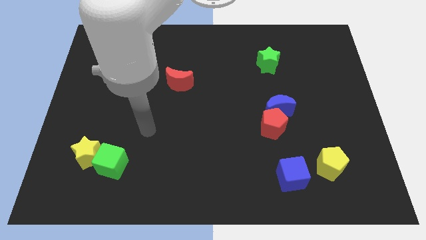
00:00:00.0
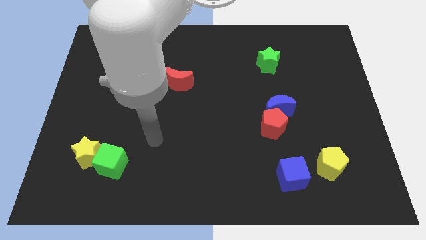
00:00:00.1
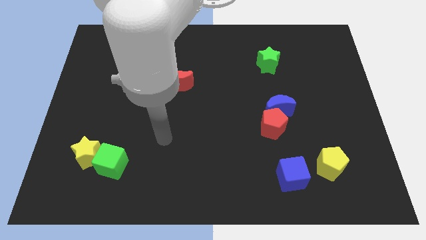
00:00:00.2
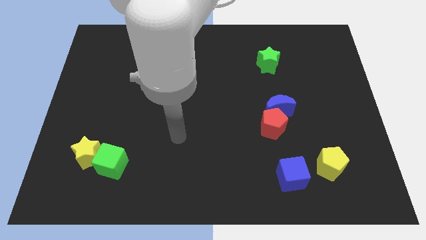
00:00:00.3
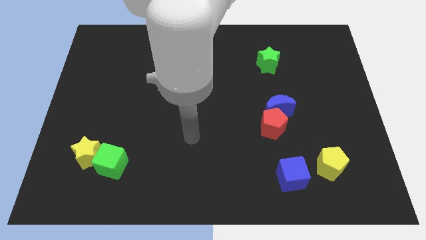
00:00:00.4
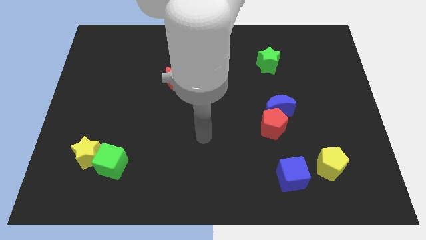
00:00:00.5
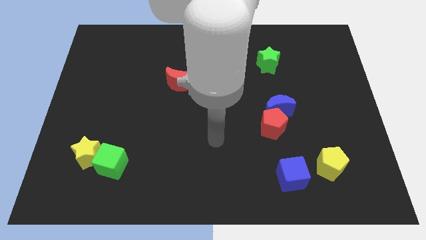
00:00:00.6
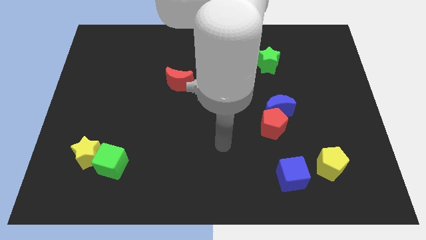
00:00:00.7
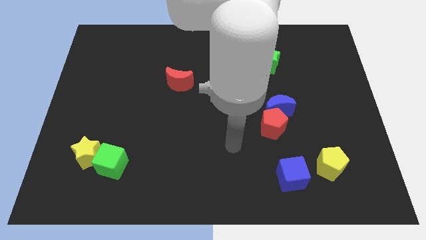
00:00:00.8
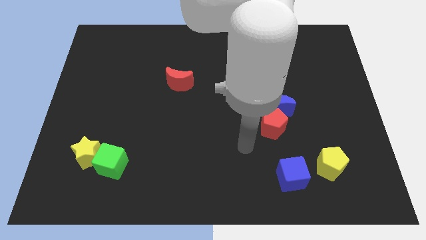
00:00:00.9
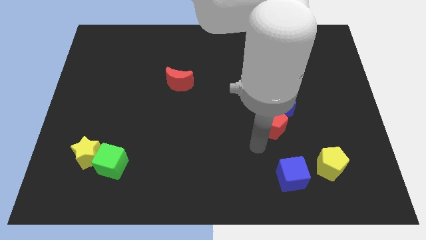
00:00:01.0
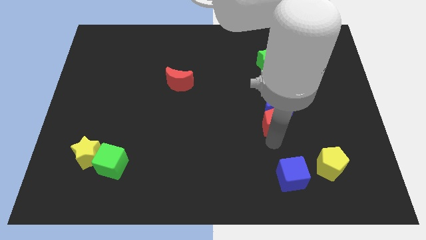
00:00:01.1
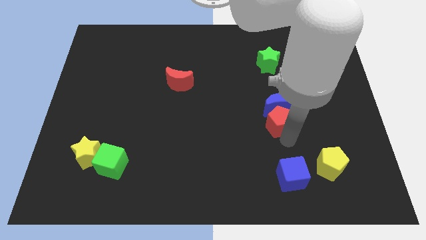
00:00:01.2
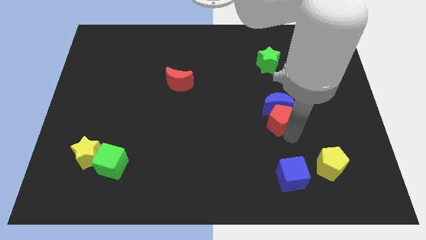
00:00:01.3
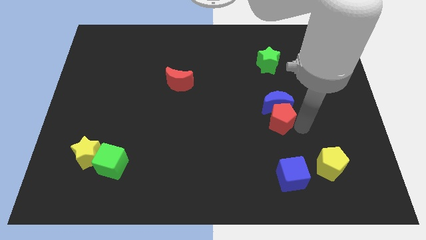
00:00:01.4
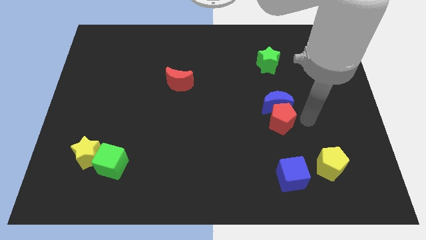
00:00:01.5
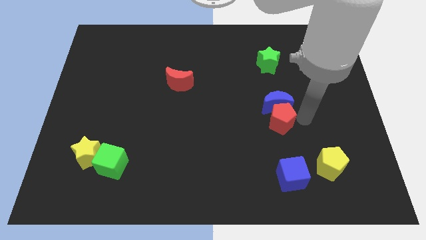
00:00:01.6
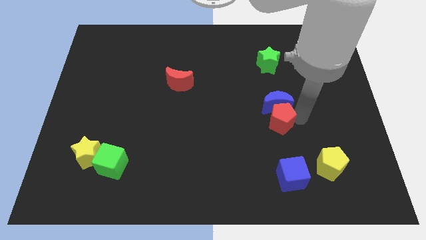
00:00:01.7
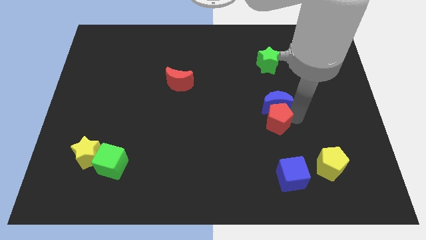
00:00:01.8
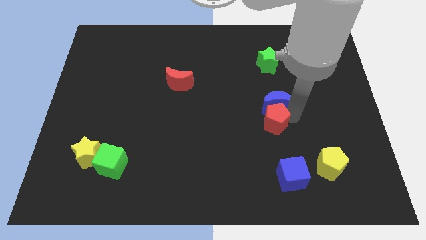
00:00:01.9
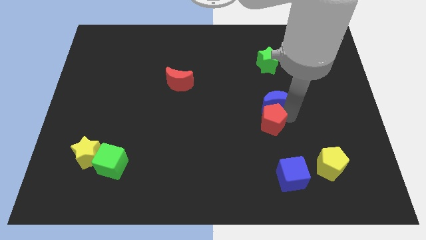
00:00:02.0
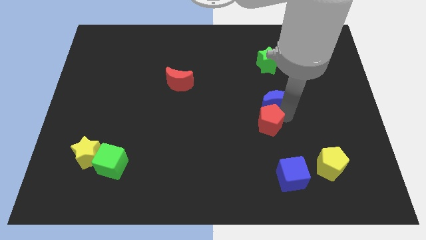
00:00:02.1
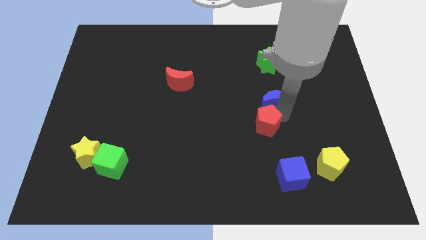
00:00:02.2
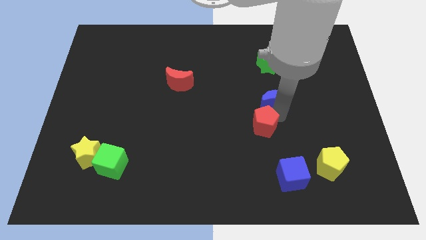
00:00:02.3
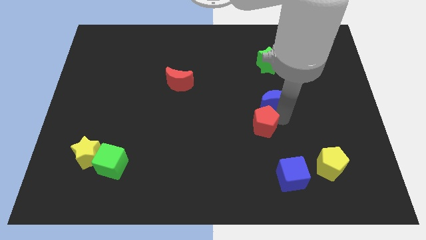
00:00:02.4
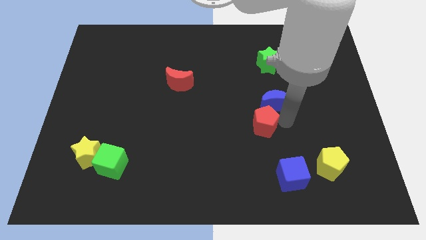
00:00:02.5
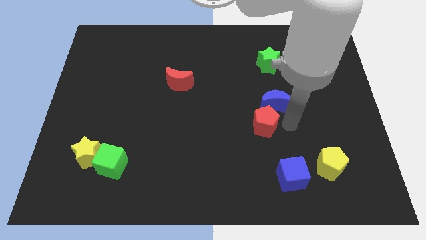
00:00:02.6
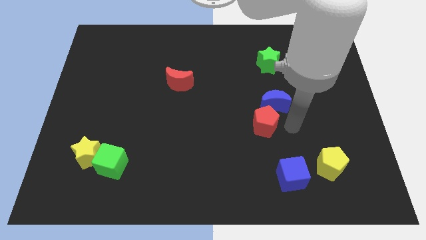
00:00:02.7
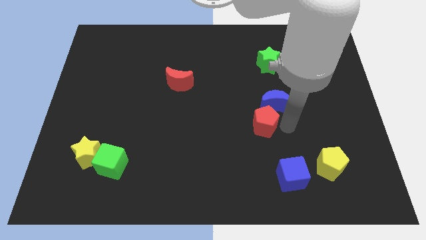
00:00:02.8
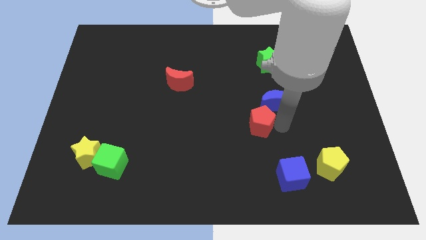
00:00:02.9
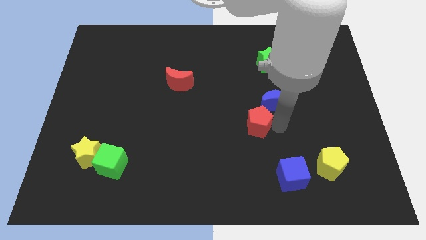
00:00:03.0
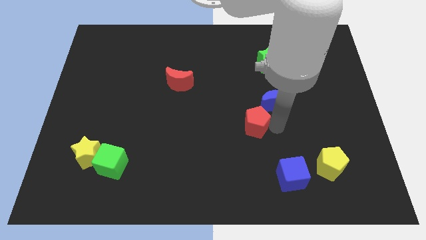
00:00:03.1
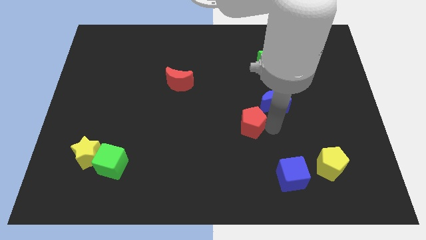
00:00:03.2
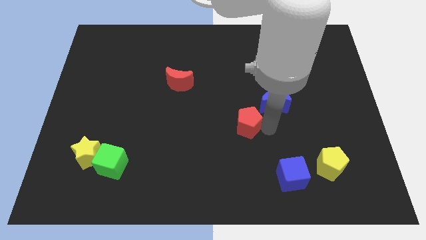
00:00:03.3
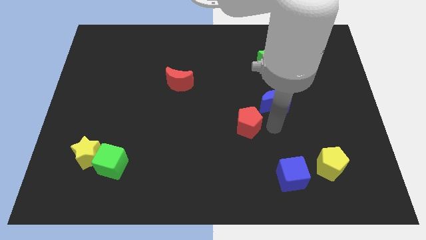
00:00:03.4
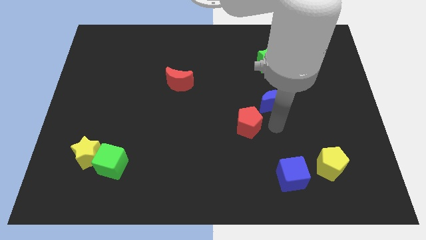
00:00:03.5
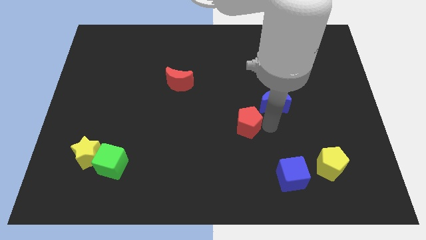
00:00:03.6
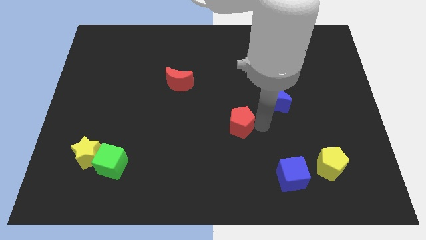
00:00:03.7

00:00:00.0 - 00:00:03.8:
slightly move the red pentagon to the left

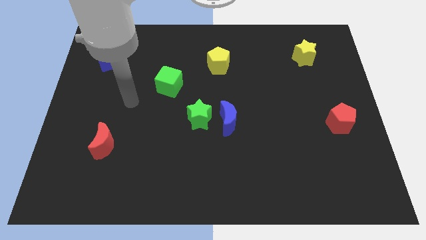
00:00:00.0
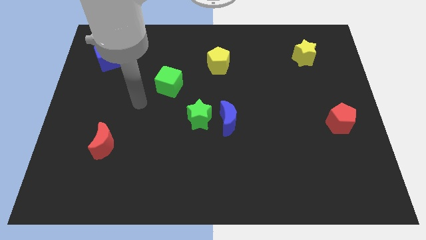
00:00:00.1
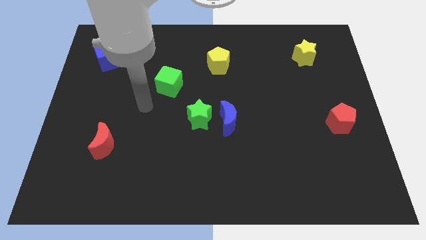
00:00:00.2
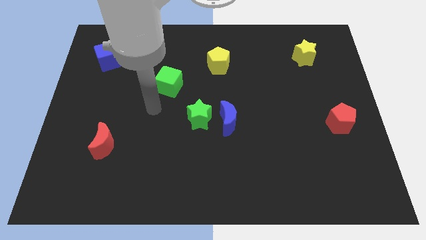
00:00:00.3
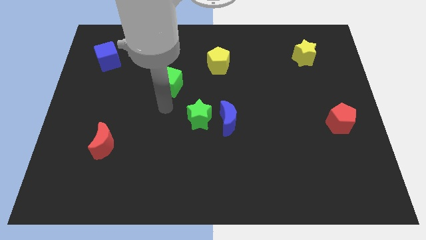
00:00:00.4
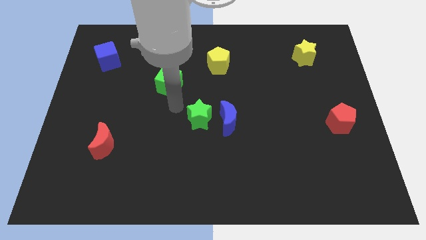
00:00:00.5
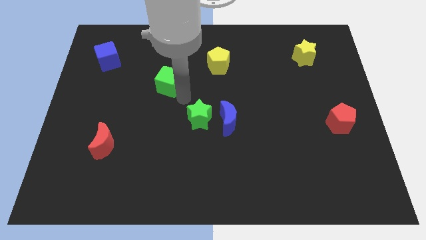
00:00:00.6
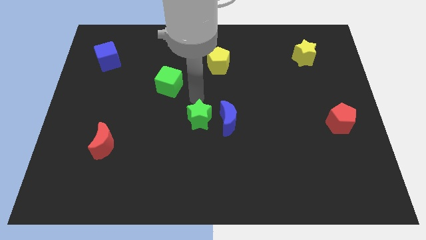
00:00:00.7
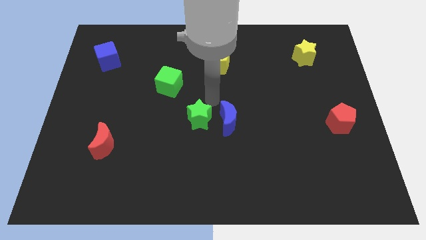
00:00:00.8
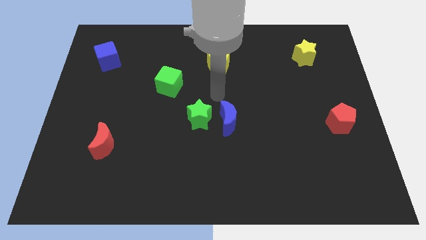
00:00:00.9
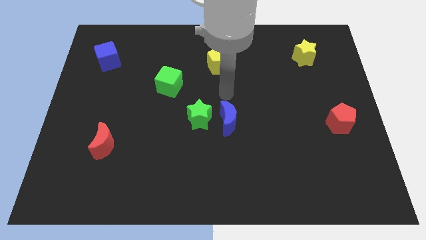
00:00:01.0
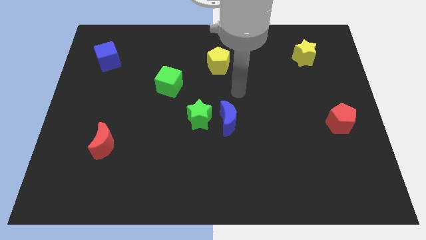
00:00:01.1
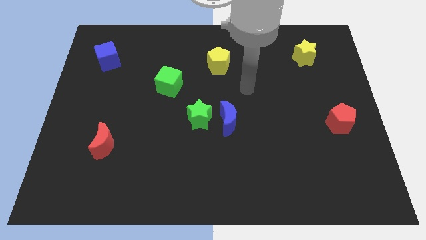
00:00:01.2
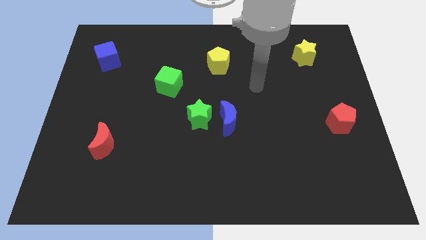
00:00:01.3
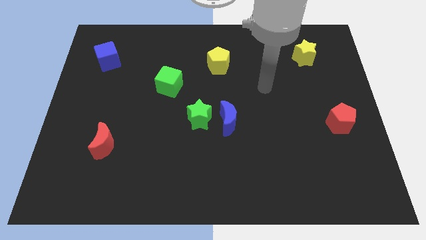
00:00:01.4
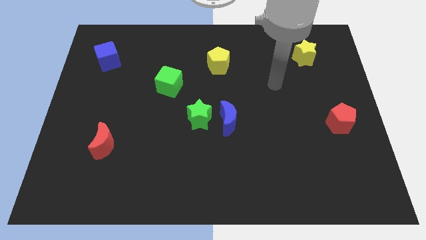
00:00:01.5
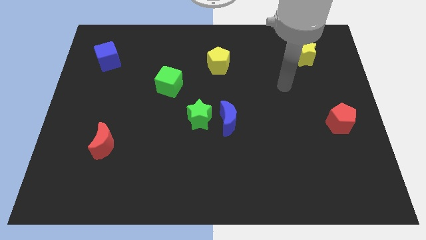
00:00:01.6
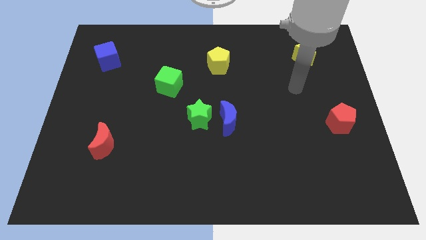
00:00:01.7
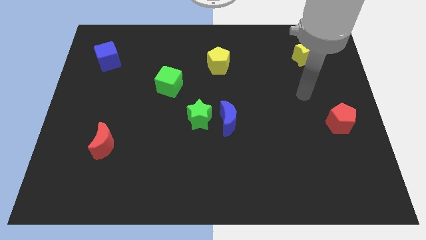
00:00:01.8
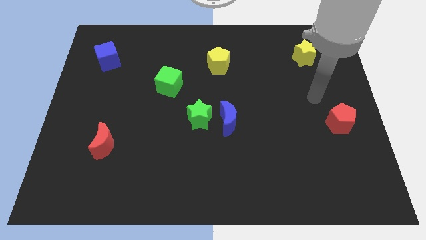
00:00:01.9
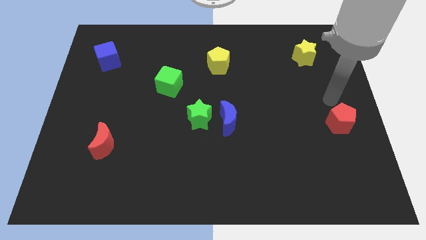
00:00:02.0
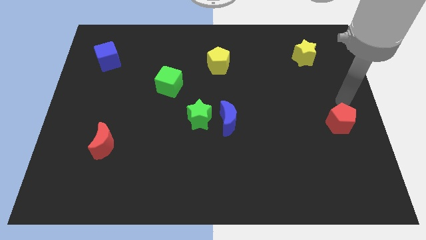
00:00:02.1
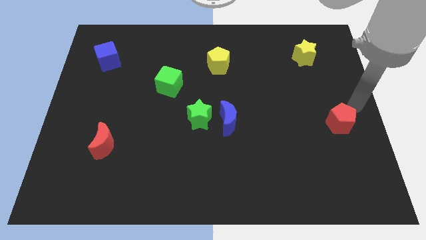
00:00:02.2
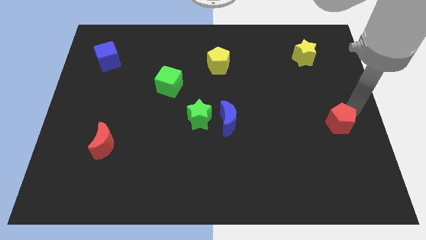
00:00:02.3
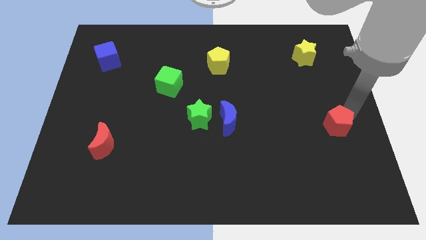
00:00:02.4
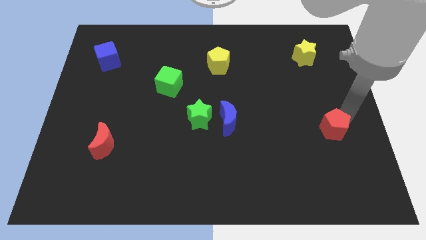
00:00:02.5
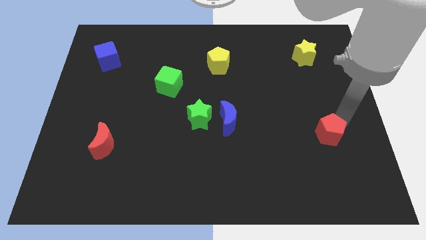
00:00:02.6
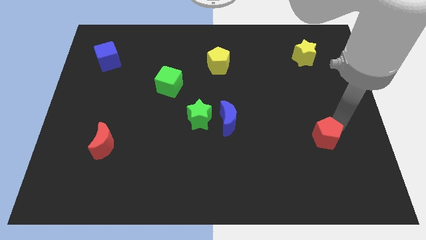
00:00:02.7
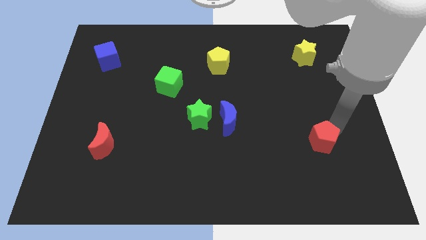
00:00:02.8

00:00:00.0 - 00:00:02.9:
move the red pentagon diagonally down and to the left somewhat

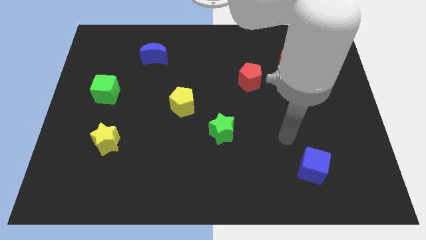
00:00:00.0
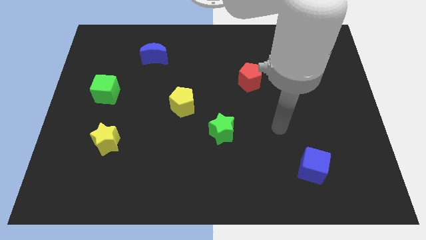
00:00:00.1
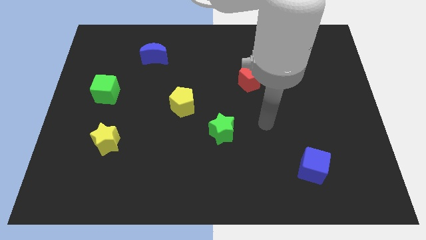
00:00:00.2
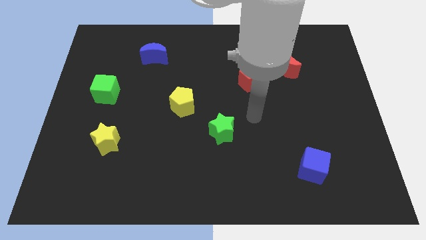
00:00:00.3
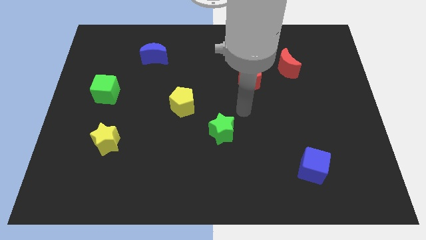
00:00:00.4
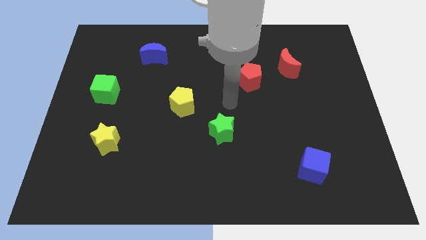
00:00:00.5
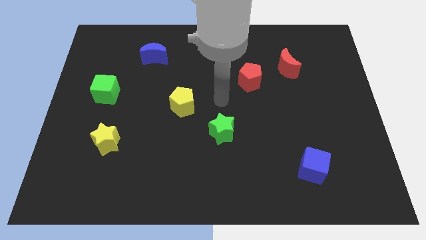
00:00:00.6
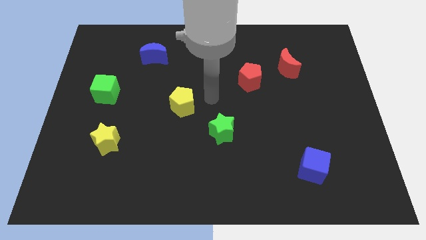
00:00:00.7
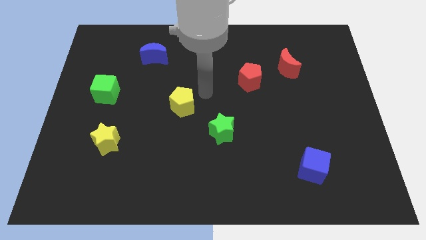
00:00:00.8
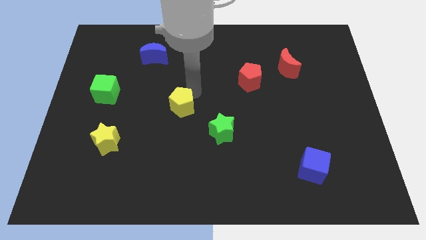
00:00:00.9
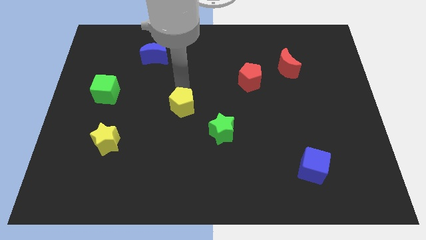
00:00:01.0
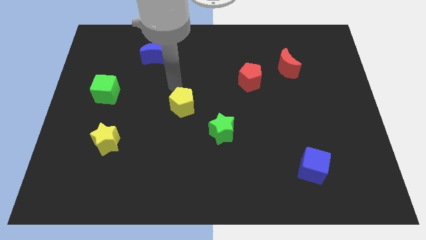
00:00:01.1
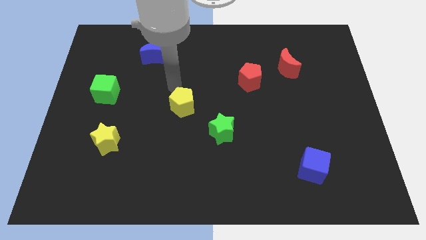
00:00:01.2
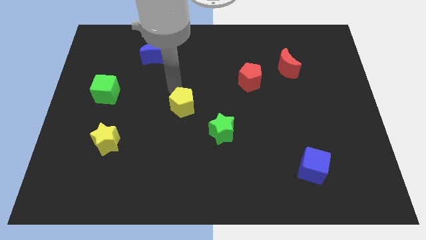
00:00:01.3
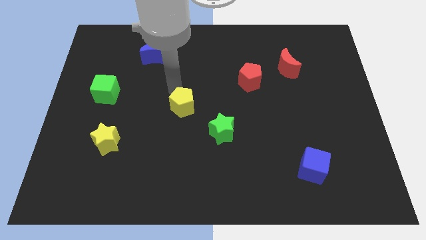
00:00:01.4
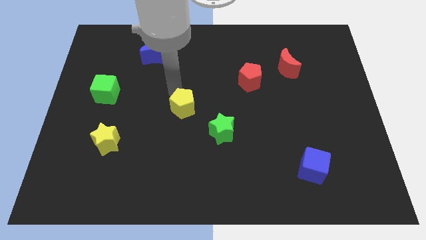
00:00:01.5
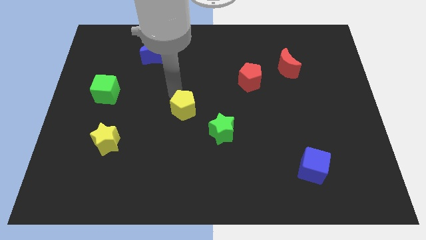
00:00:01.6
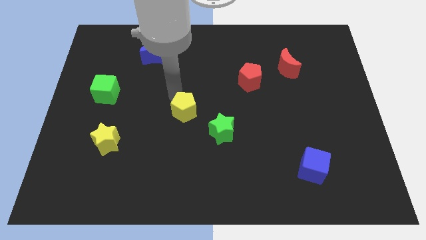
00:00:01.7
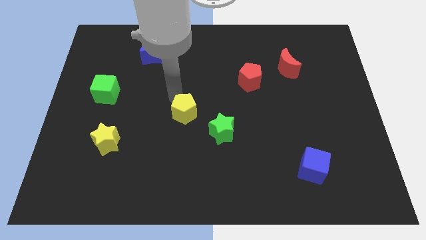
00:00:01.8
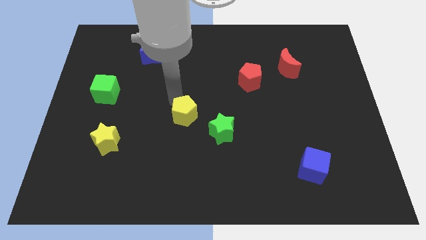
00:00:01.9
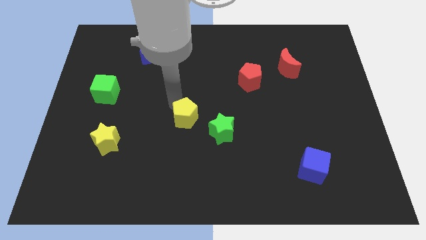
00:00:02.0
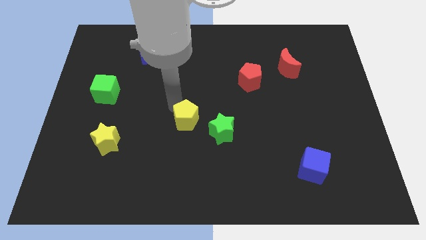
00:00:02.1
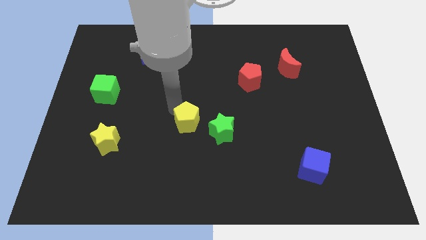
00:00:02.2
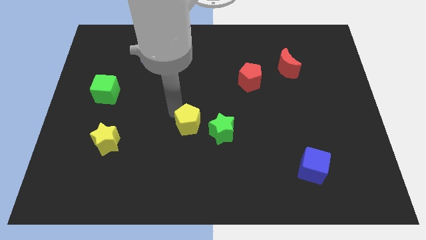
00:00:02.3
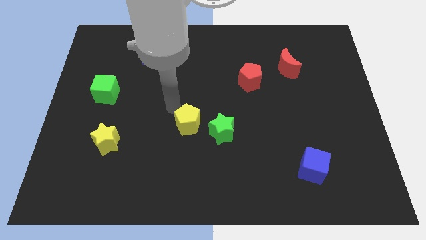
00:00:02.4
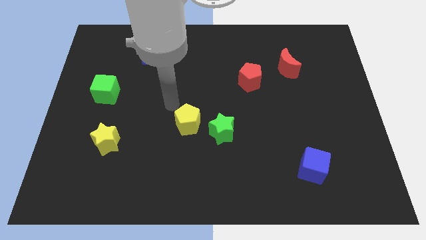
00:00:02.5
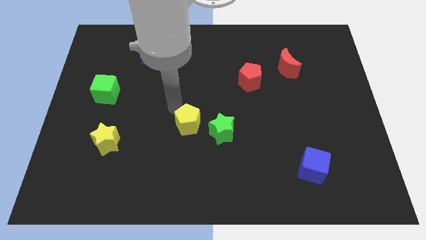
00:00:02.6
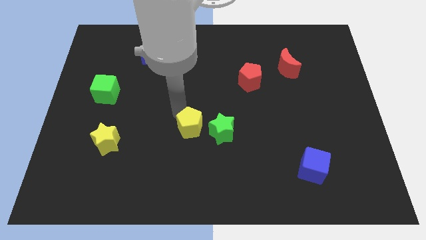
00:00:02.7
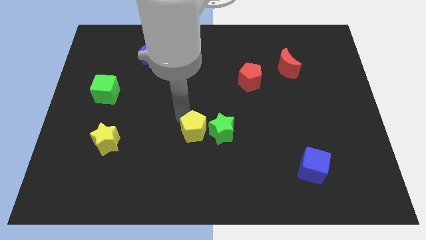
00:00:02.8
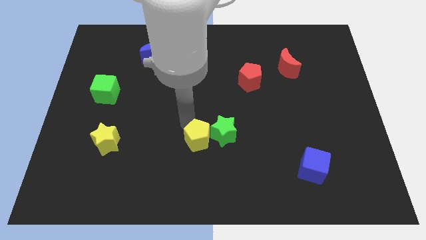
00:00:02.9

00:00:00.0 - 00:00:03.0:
slightly slide the yellow pentagon down and right diagonally
